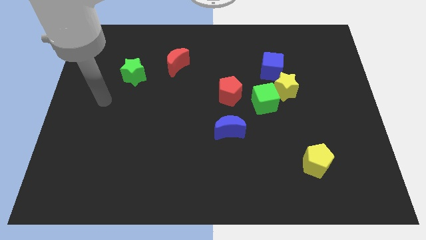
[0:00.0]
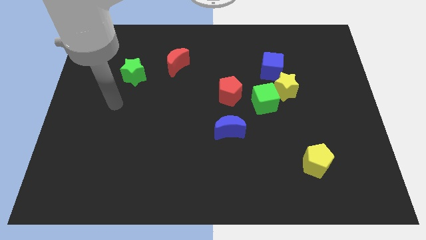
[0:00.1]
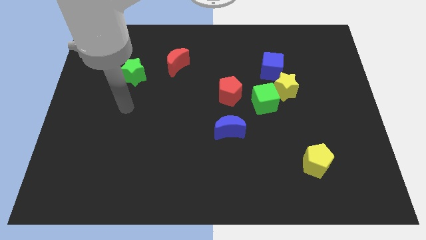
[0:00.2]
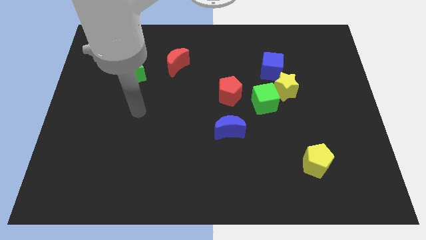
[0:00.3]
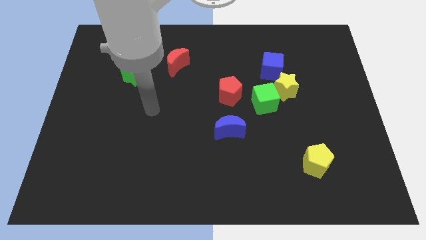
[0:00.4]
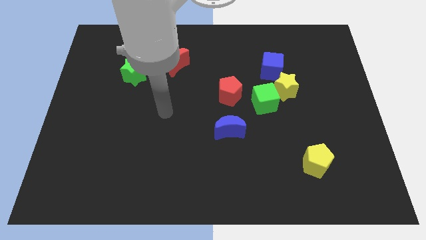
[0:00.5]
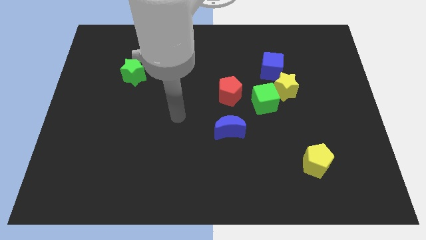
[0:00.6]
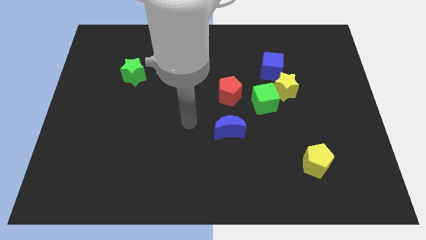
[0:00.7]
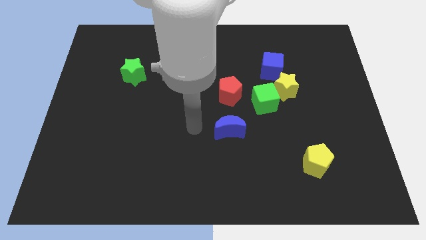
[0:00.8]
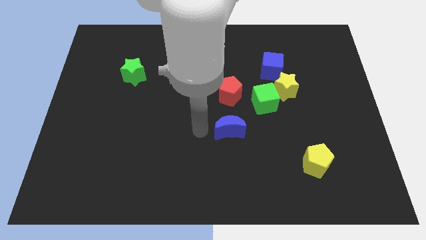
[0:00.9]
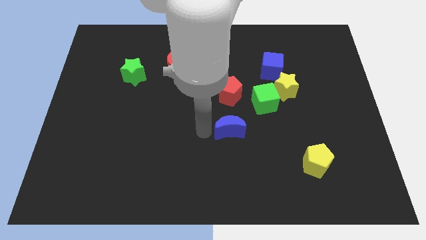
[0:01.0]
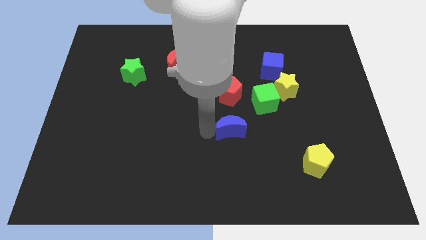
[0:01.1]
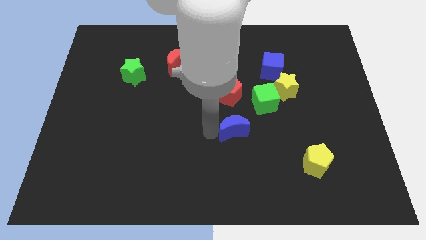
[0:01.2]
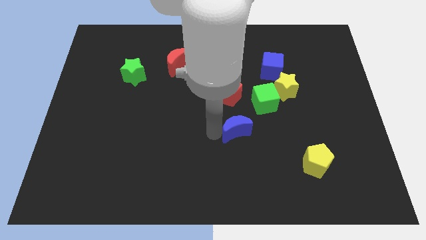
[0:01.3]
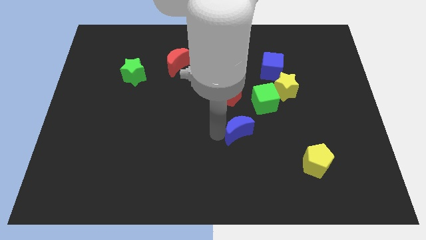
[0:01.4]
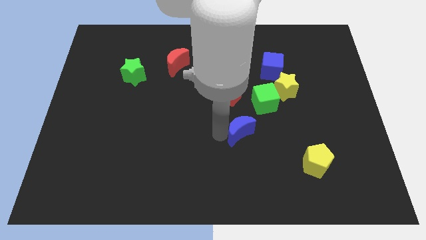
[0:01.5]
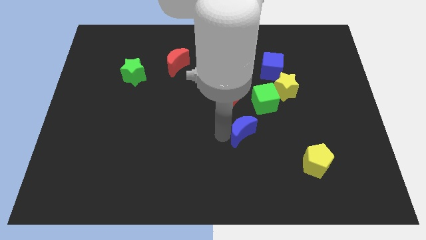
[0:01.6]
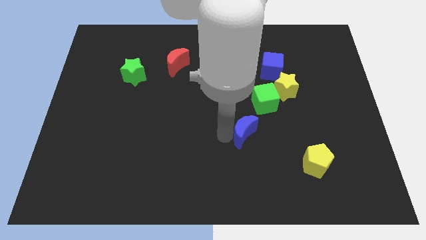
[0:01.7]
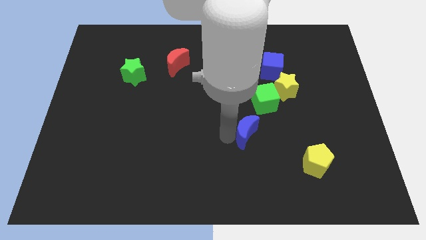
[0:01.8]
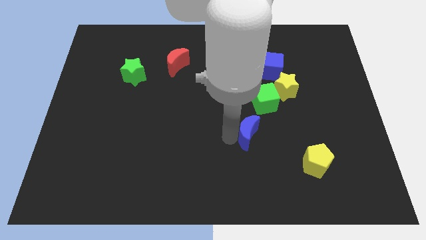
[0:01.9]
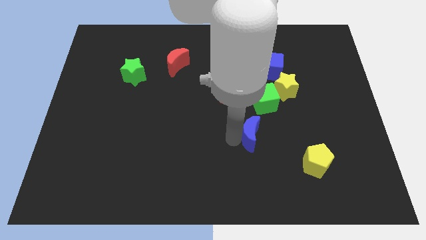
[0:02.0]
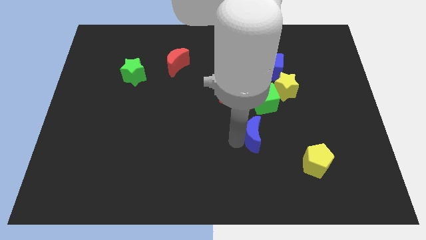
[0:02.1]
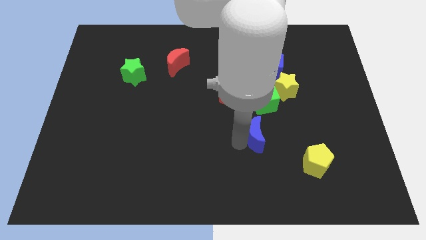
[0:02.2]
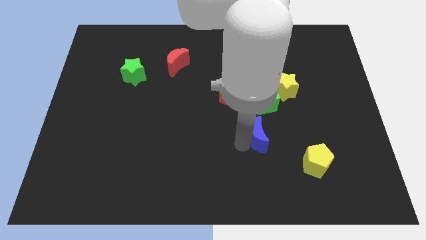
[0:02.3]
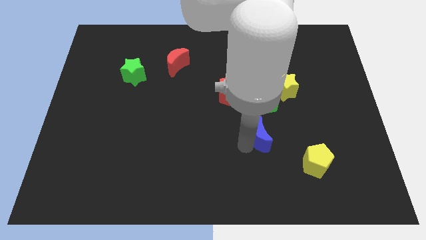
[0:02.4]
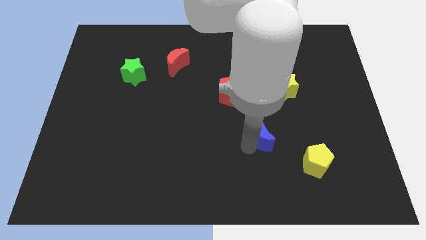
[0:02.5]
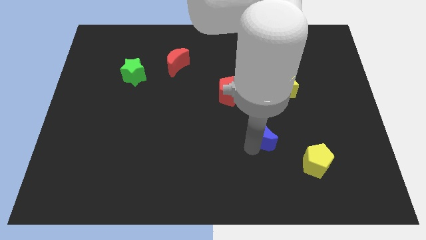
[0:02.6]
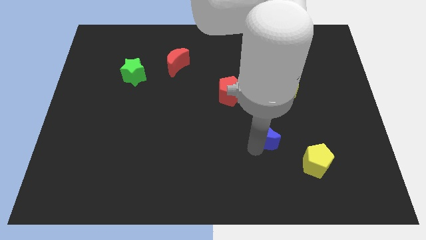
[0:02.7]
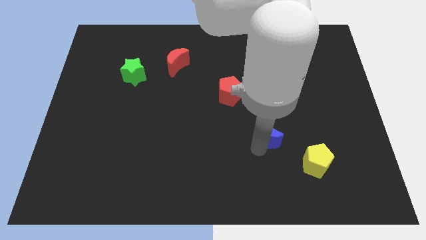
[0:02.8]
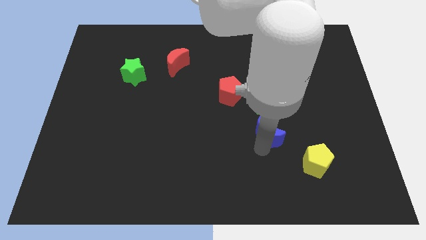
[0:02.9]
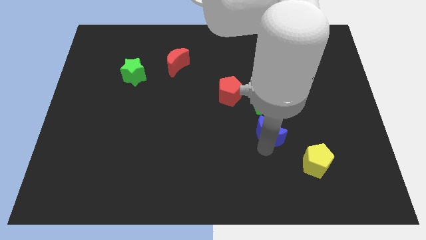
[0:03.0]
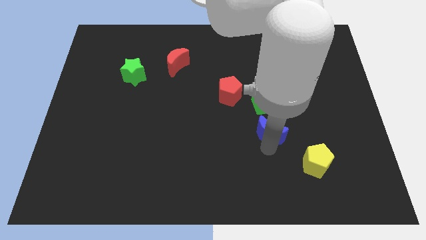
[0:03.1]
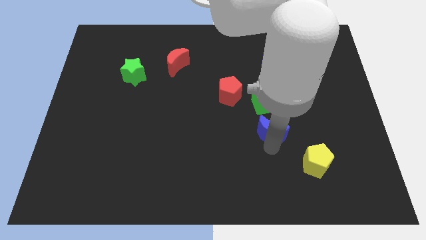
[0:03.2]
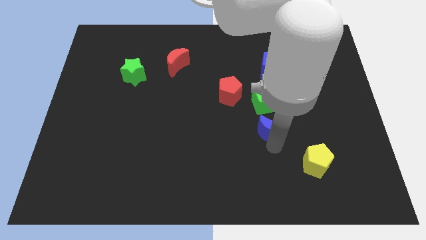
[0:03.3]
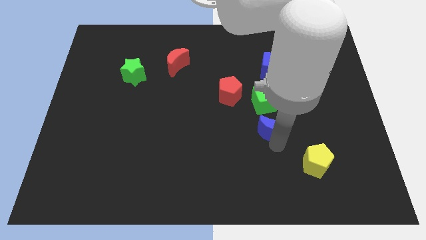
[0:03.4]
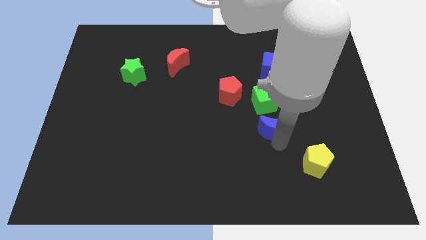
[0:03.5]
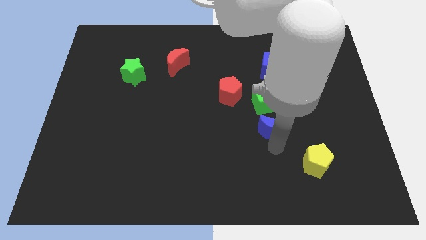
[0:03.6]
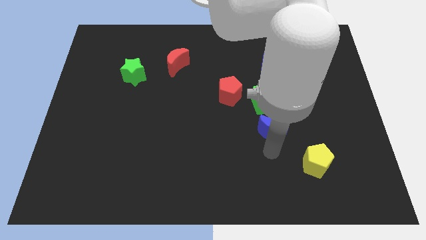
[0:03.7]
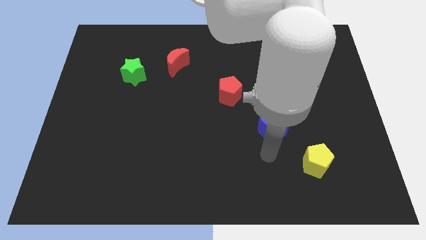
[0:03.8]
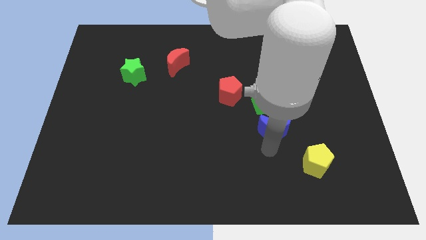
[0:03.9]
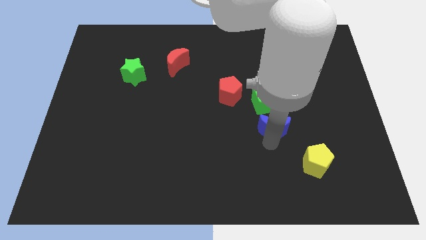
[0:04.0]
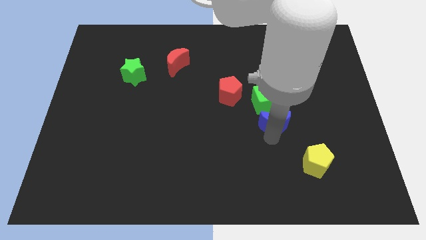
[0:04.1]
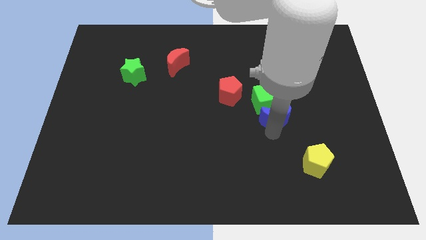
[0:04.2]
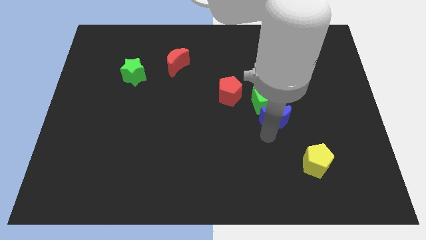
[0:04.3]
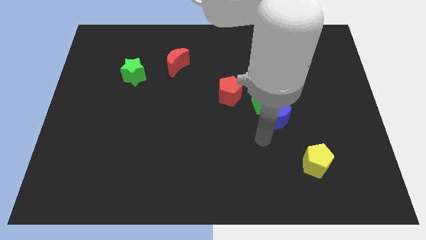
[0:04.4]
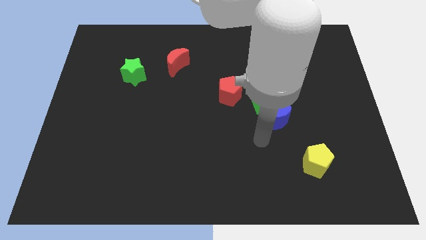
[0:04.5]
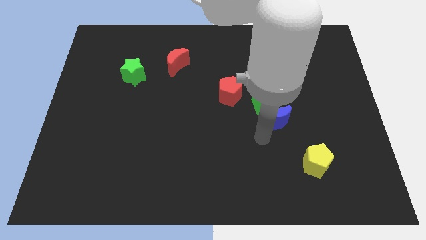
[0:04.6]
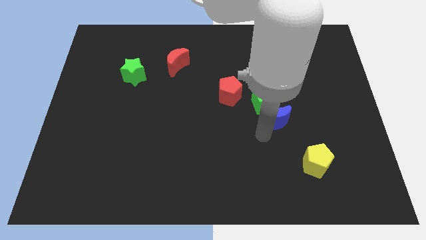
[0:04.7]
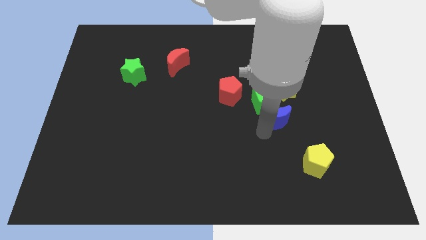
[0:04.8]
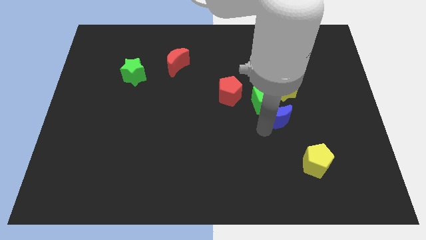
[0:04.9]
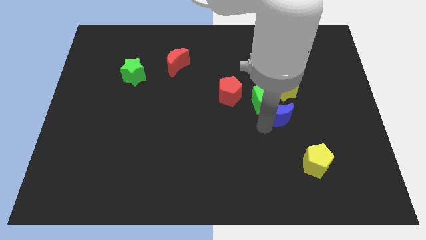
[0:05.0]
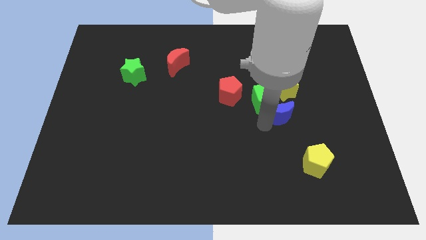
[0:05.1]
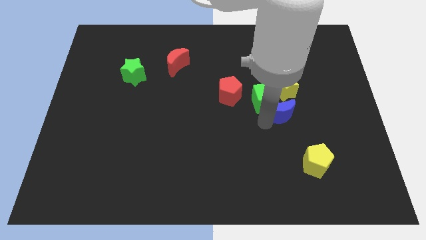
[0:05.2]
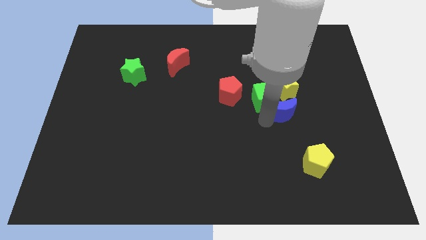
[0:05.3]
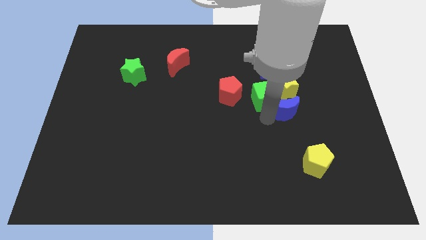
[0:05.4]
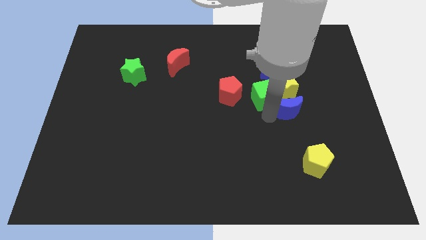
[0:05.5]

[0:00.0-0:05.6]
push the blue moon towards the yellow star

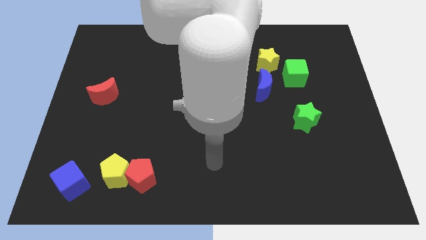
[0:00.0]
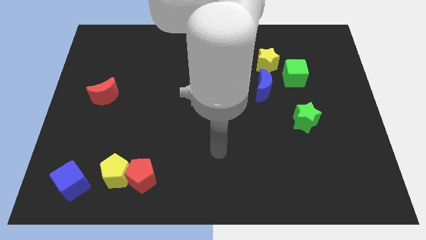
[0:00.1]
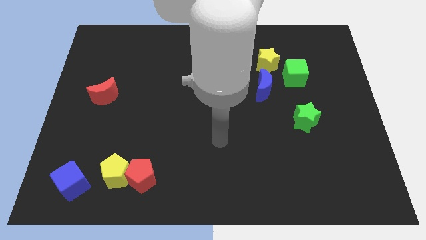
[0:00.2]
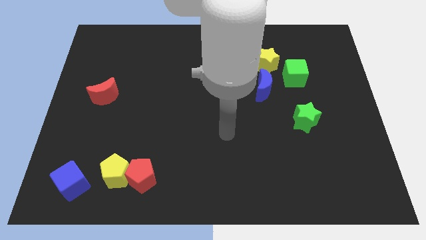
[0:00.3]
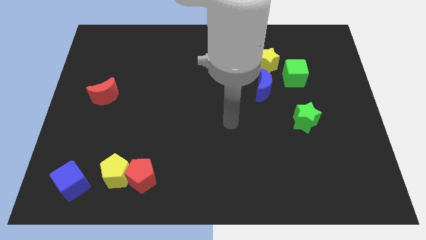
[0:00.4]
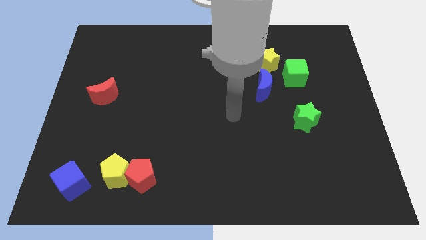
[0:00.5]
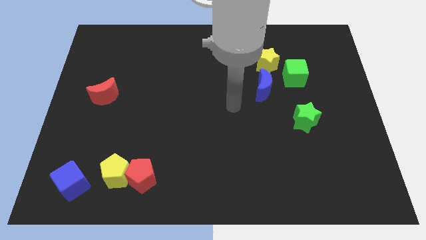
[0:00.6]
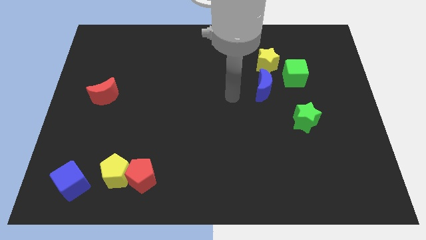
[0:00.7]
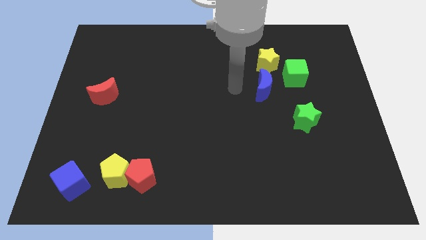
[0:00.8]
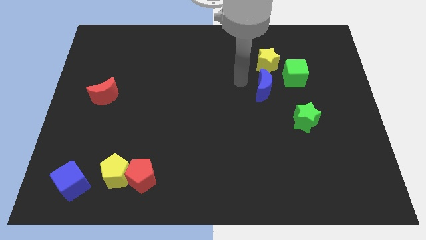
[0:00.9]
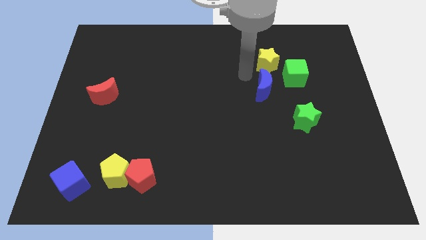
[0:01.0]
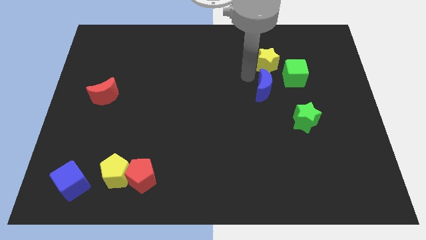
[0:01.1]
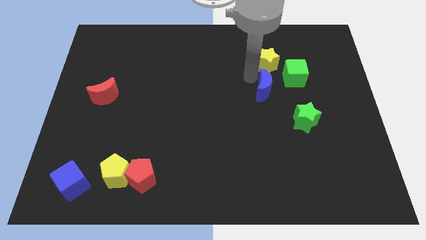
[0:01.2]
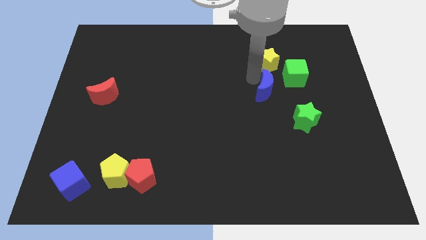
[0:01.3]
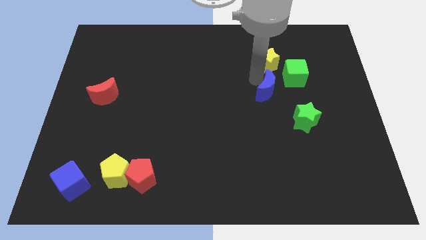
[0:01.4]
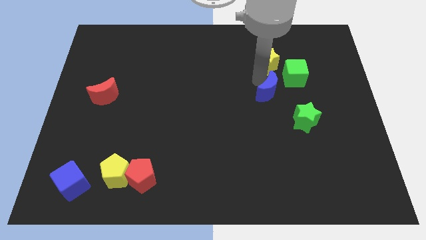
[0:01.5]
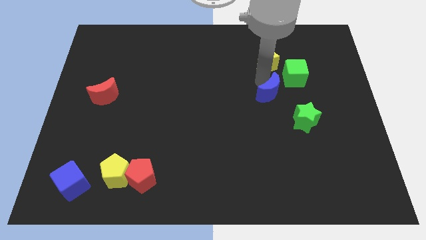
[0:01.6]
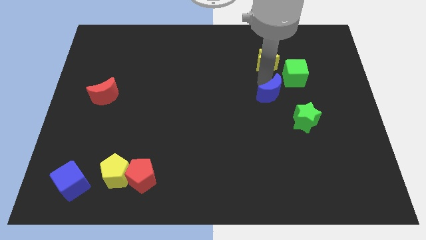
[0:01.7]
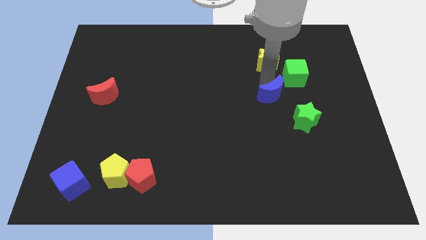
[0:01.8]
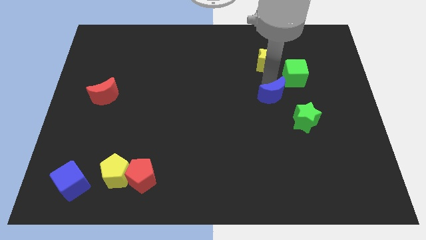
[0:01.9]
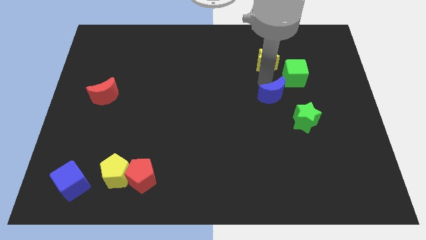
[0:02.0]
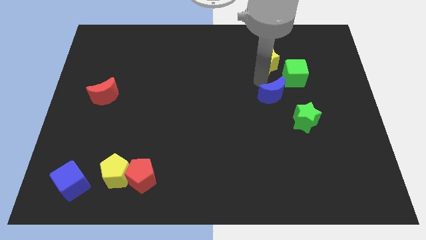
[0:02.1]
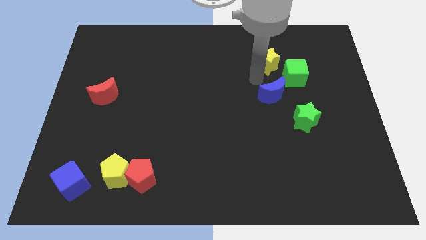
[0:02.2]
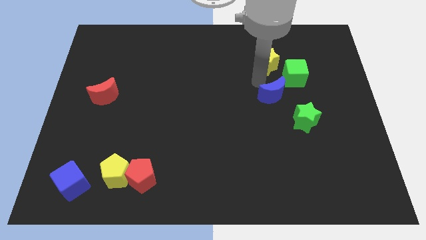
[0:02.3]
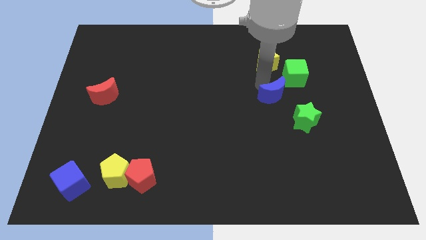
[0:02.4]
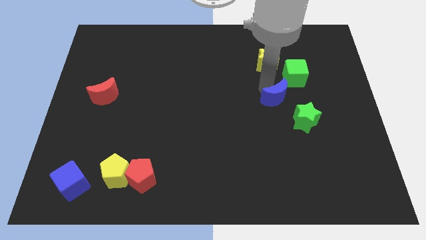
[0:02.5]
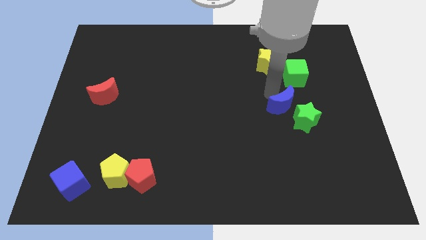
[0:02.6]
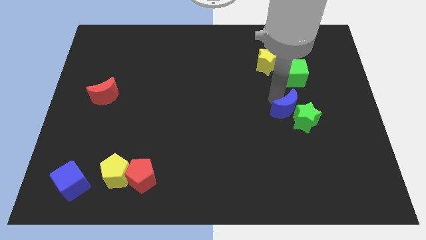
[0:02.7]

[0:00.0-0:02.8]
put the blue moon next to the green star
